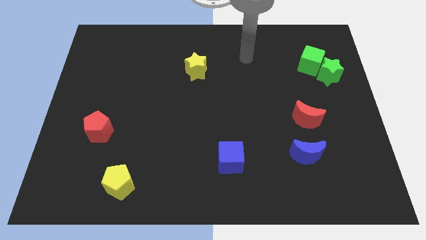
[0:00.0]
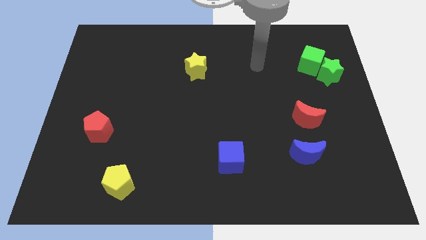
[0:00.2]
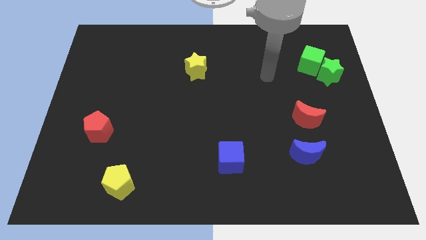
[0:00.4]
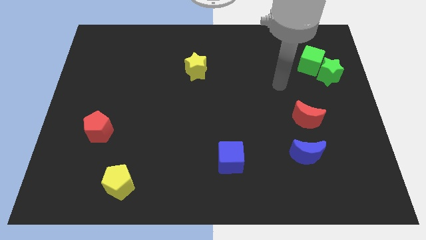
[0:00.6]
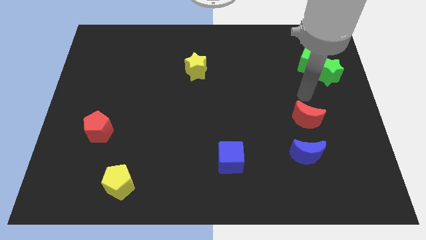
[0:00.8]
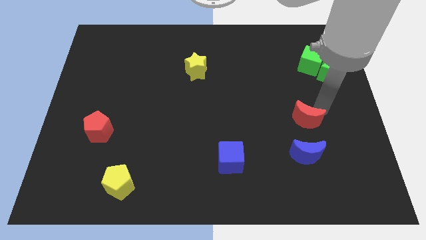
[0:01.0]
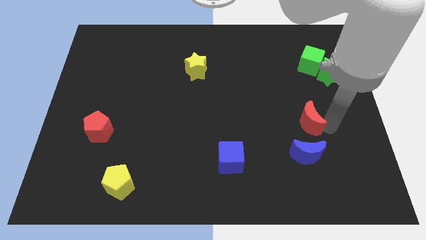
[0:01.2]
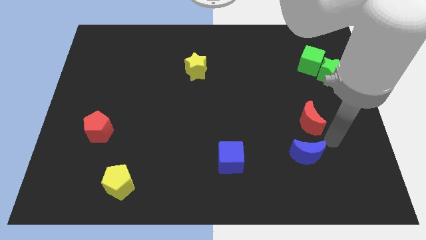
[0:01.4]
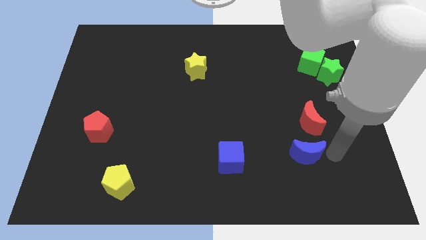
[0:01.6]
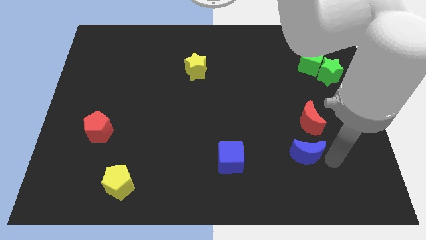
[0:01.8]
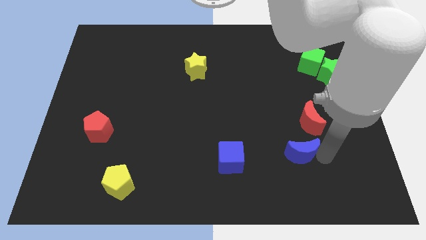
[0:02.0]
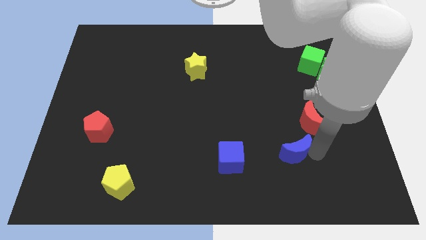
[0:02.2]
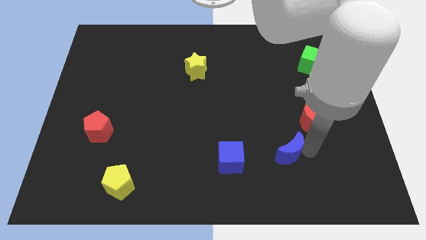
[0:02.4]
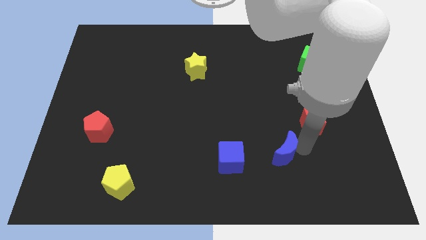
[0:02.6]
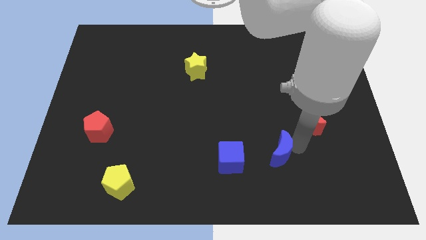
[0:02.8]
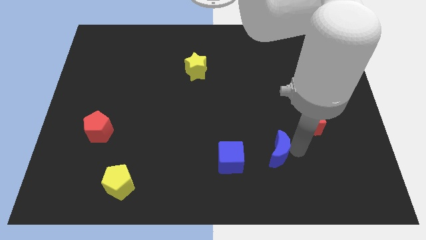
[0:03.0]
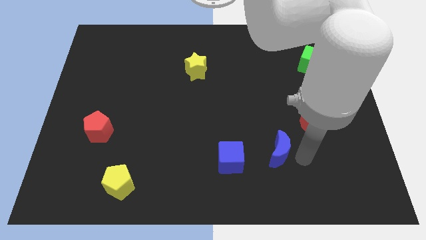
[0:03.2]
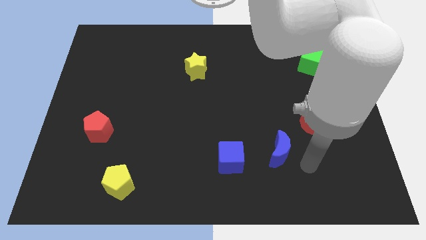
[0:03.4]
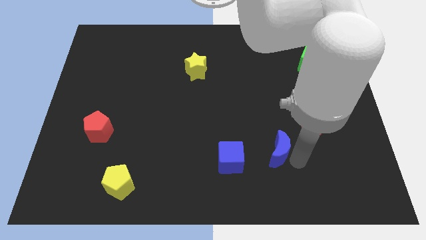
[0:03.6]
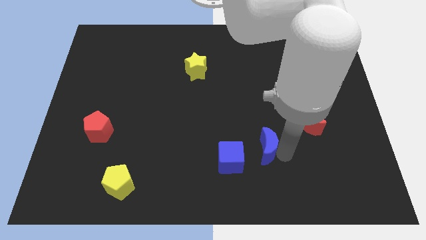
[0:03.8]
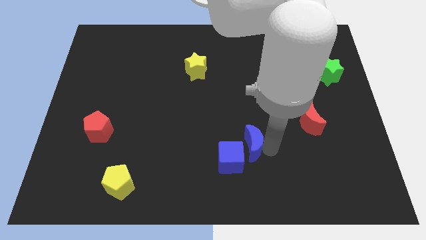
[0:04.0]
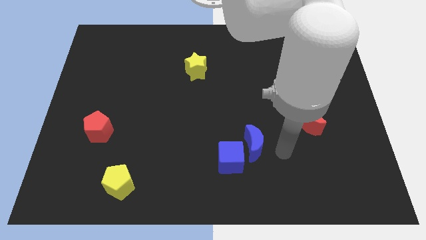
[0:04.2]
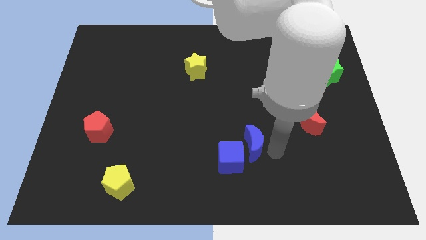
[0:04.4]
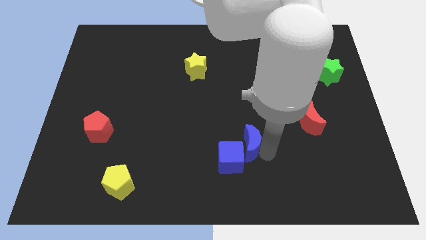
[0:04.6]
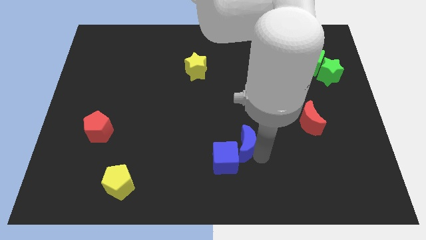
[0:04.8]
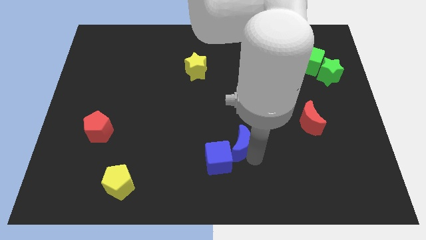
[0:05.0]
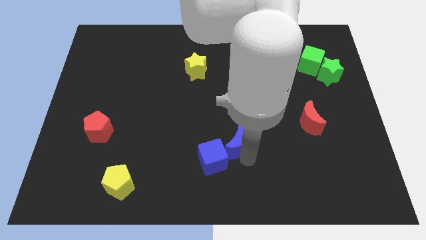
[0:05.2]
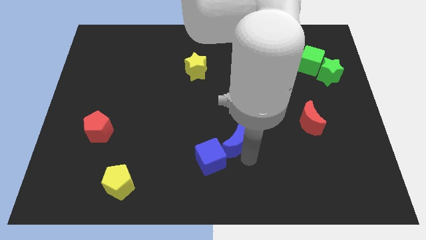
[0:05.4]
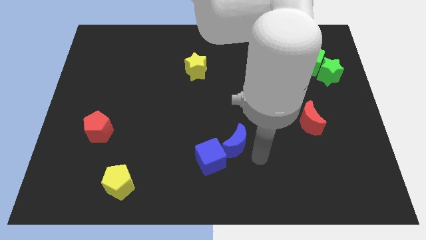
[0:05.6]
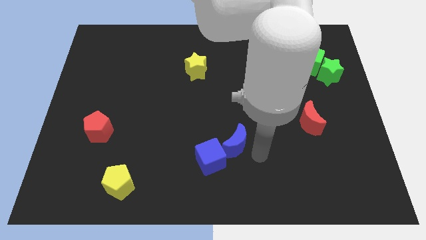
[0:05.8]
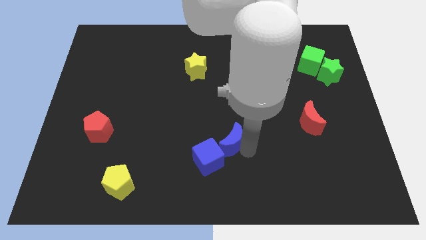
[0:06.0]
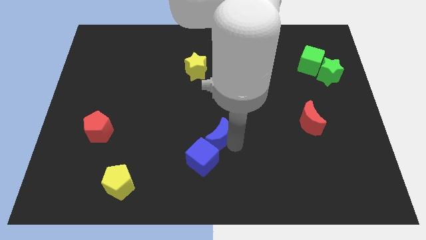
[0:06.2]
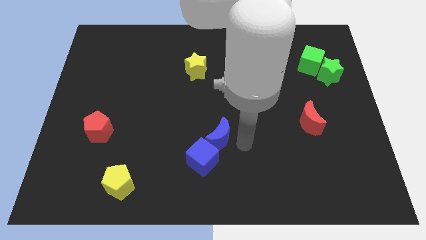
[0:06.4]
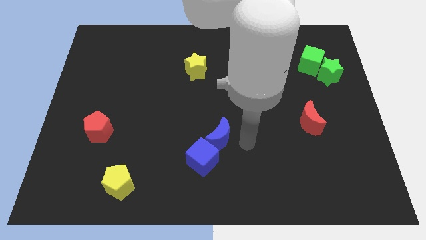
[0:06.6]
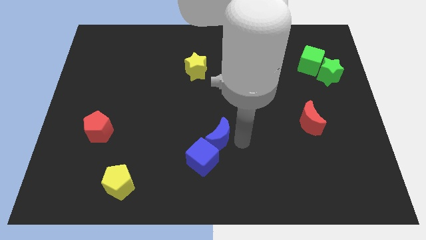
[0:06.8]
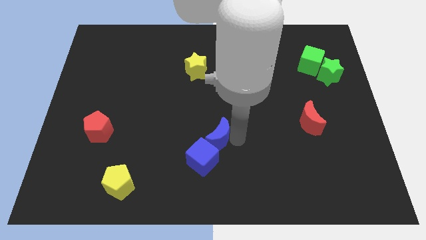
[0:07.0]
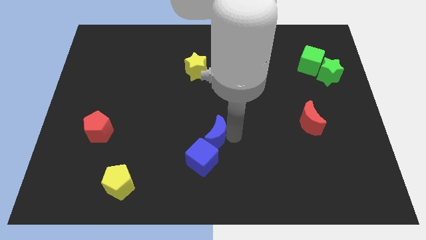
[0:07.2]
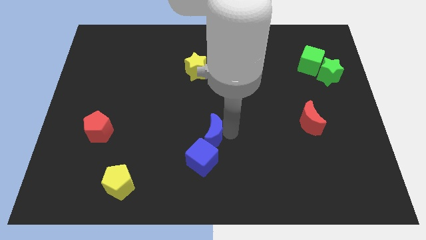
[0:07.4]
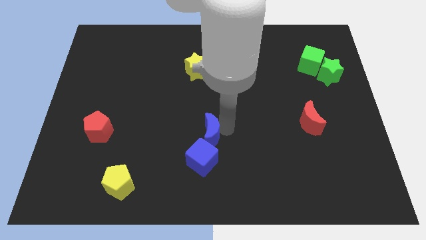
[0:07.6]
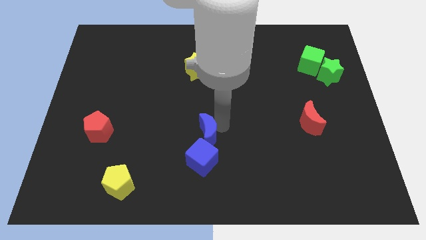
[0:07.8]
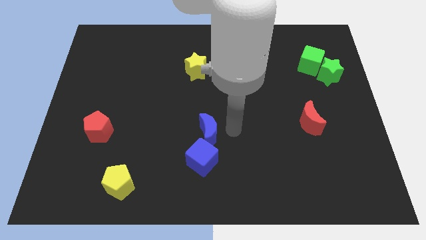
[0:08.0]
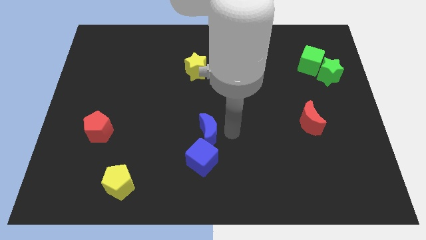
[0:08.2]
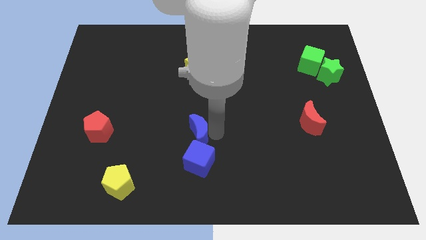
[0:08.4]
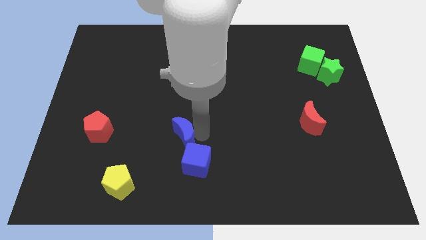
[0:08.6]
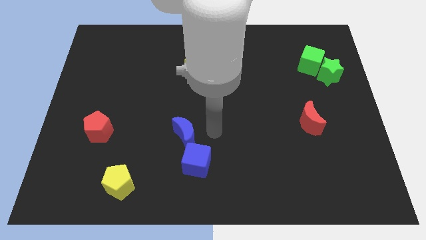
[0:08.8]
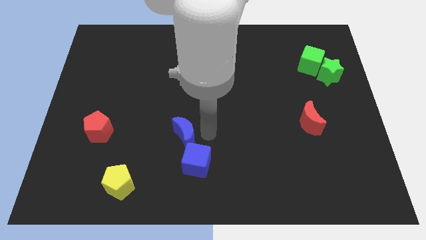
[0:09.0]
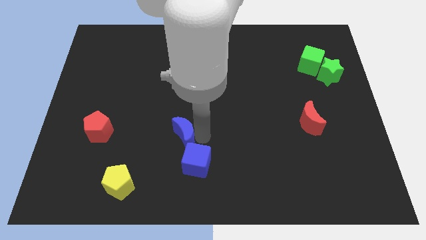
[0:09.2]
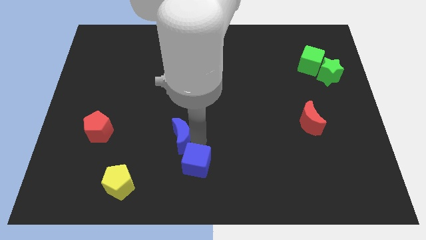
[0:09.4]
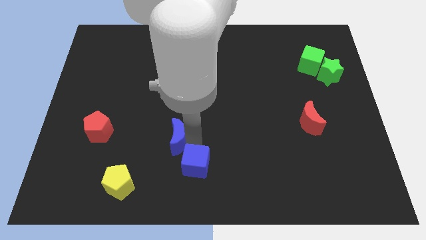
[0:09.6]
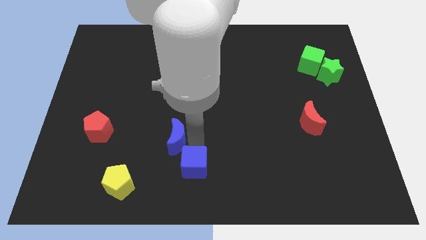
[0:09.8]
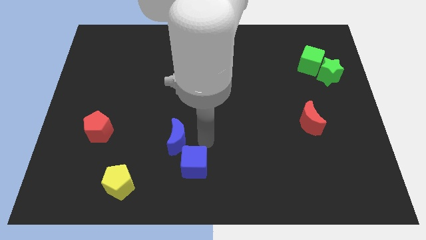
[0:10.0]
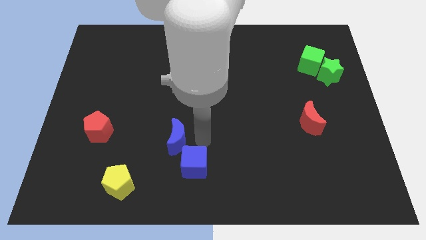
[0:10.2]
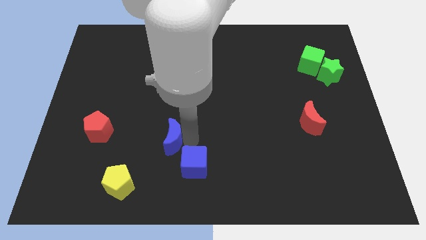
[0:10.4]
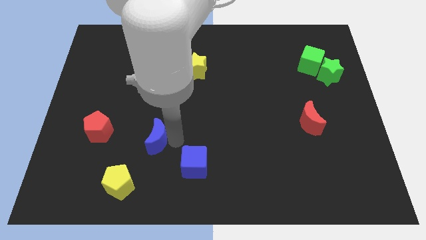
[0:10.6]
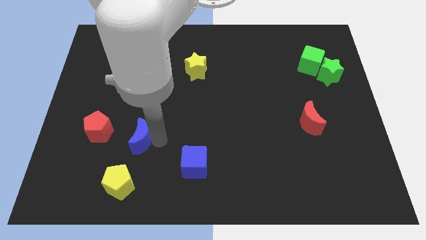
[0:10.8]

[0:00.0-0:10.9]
push the blue moon to the top of the yellow pentagon

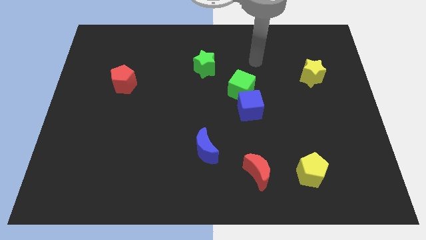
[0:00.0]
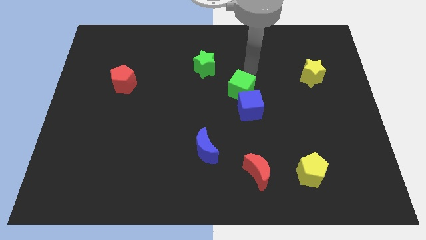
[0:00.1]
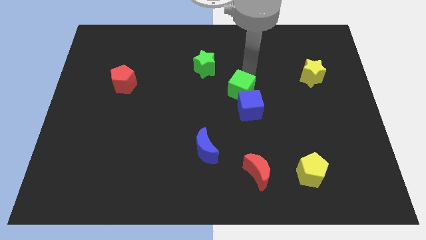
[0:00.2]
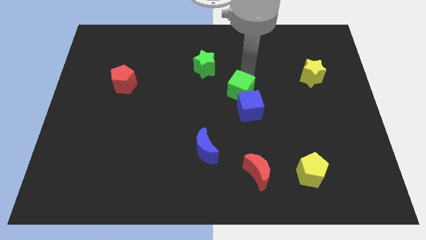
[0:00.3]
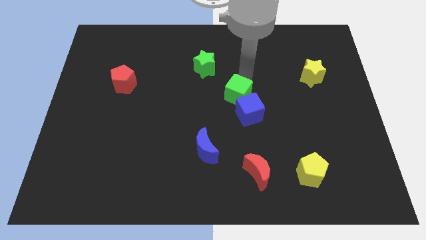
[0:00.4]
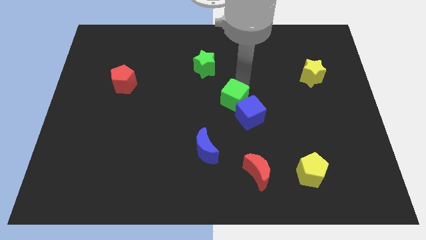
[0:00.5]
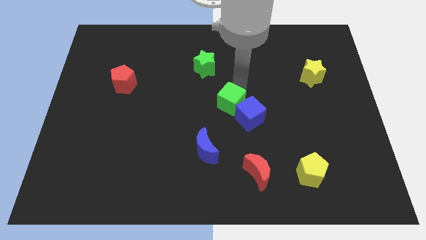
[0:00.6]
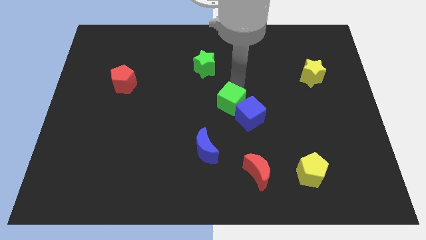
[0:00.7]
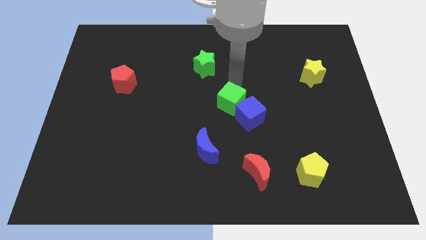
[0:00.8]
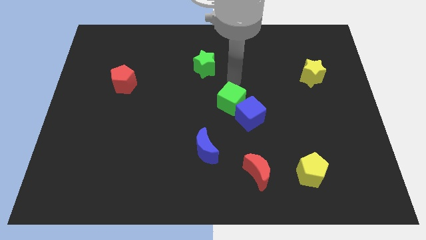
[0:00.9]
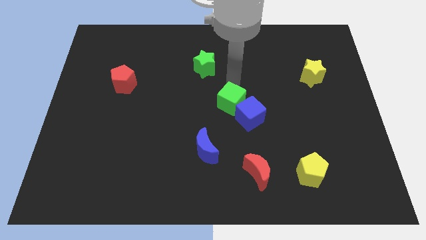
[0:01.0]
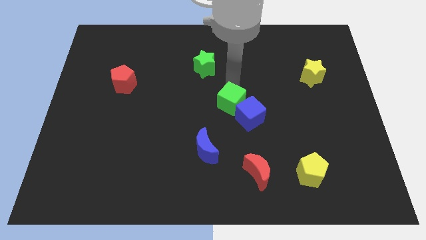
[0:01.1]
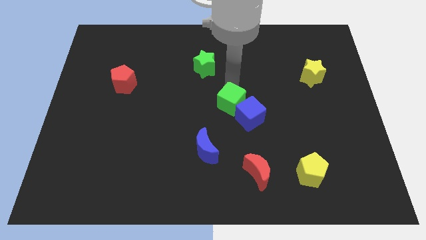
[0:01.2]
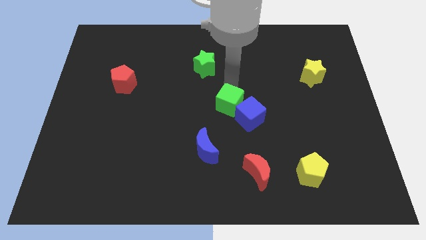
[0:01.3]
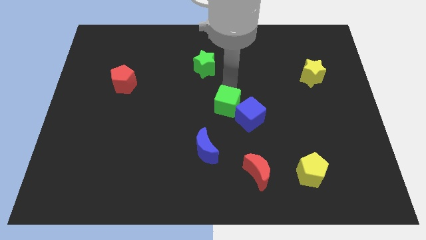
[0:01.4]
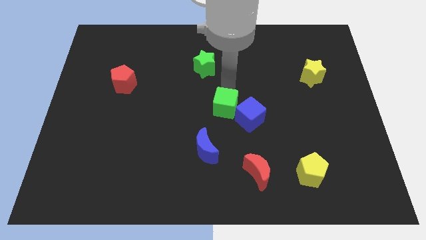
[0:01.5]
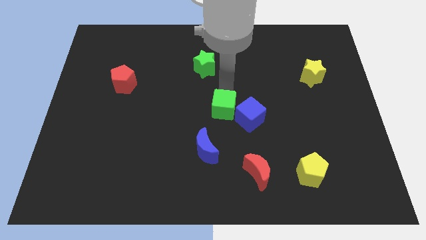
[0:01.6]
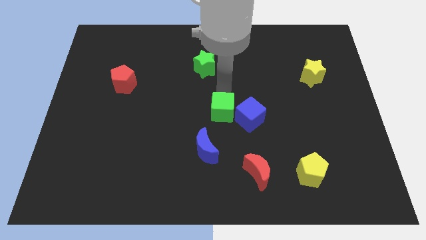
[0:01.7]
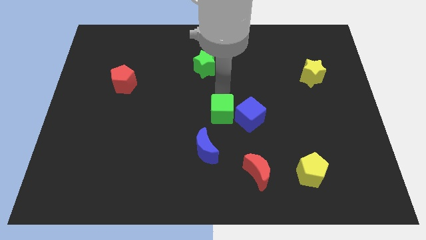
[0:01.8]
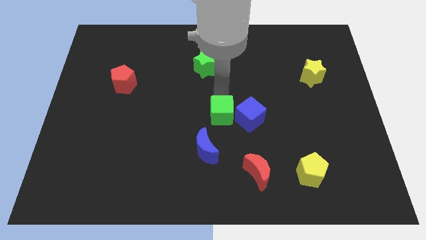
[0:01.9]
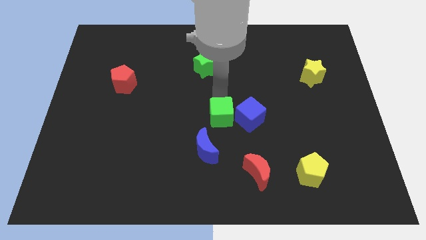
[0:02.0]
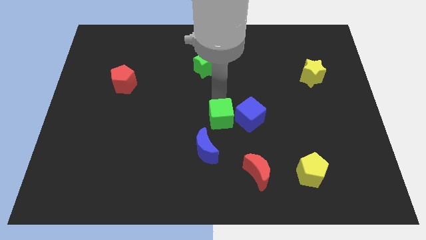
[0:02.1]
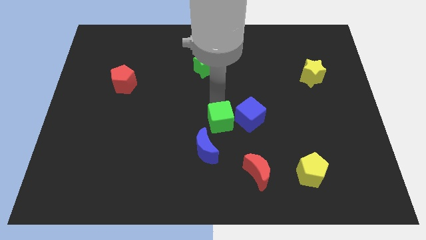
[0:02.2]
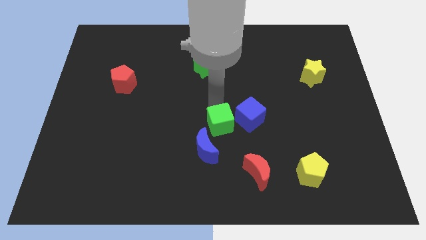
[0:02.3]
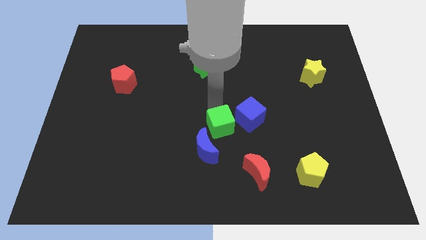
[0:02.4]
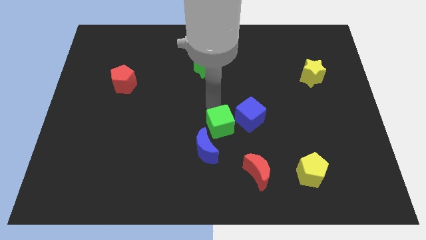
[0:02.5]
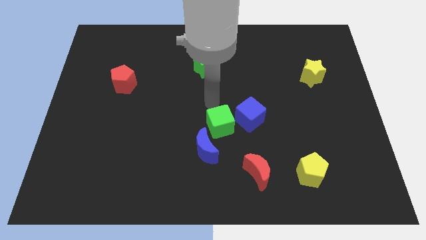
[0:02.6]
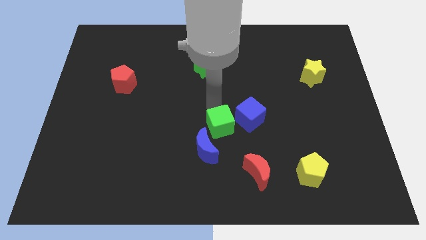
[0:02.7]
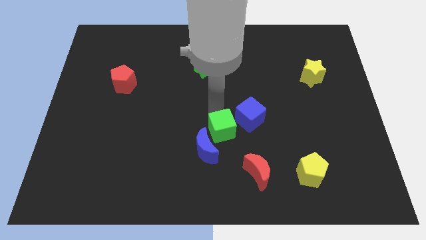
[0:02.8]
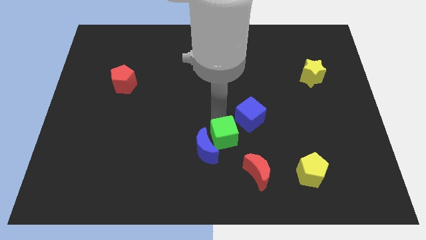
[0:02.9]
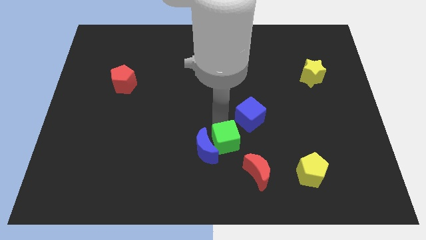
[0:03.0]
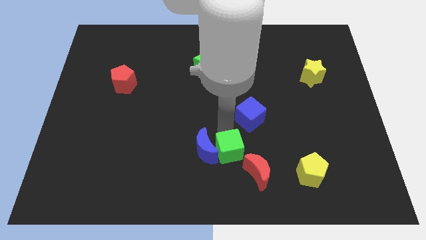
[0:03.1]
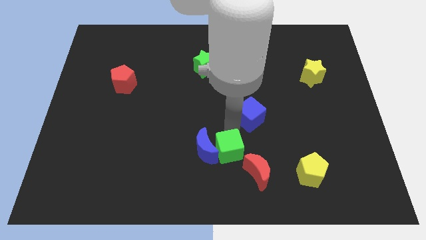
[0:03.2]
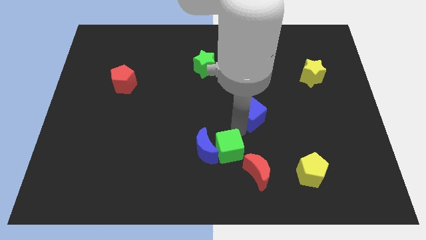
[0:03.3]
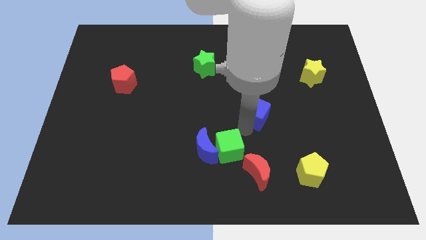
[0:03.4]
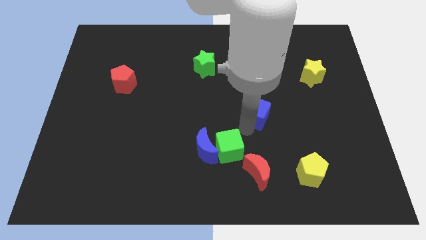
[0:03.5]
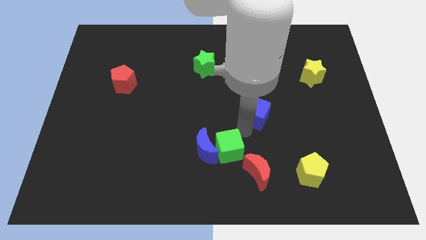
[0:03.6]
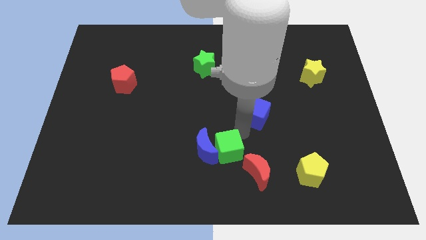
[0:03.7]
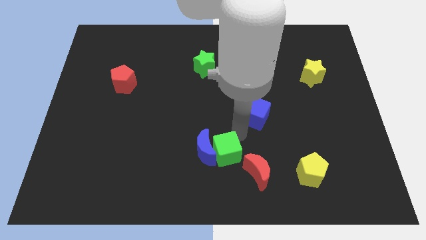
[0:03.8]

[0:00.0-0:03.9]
slide the green cube left of the red moon
